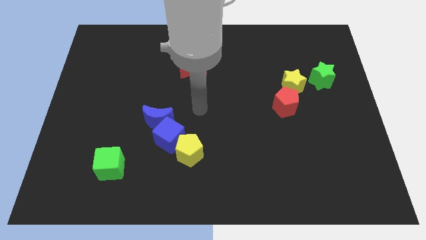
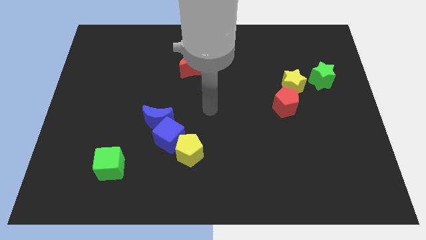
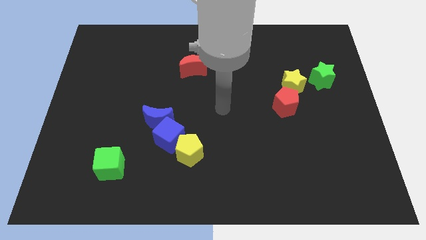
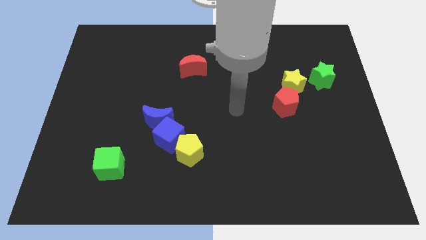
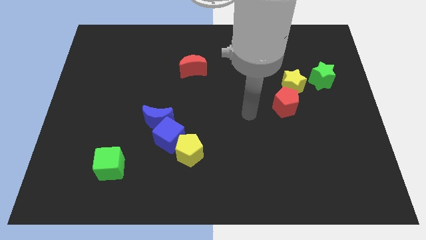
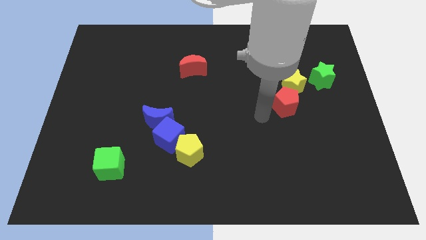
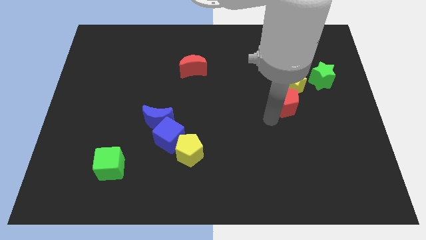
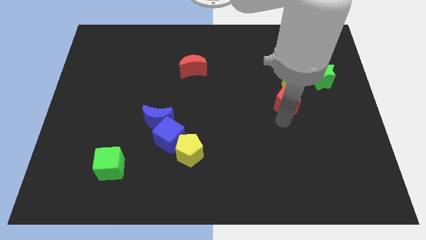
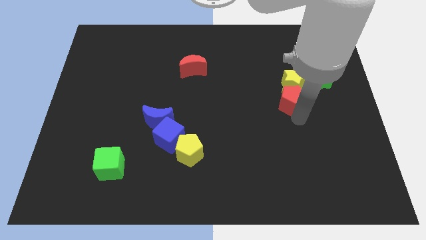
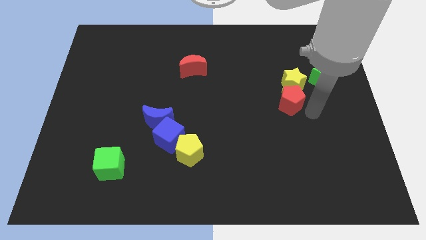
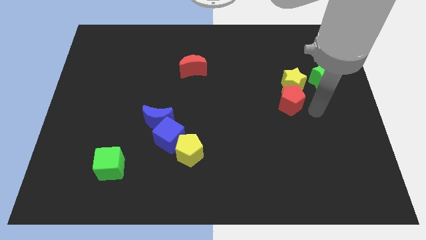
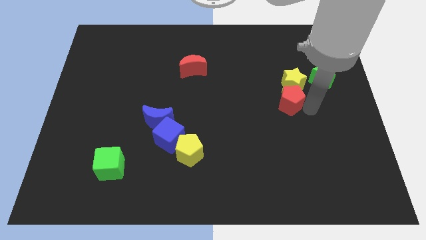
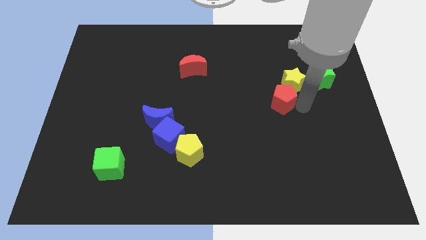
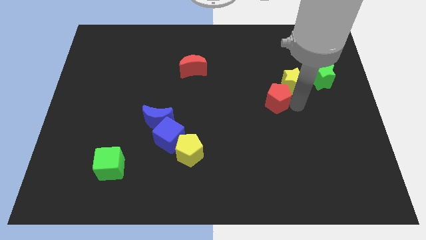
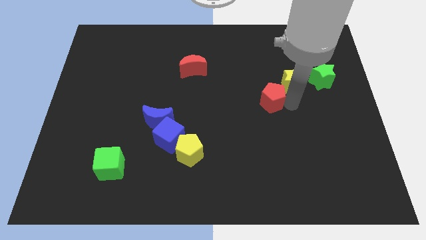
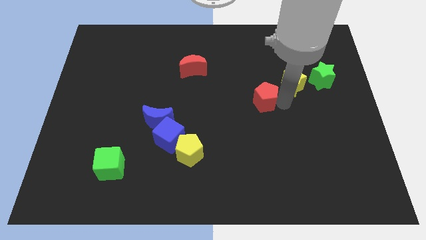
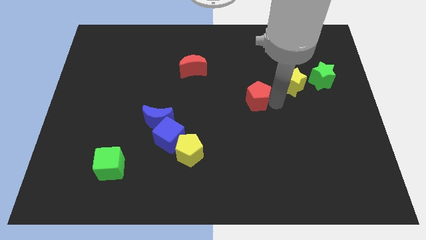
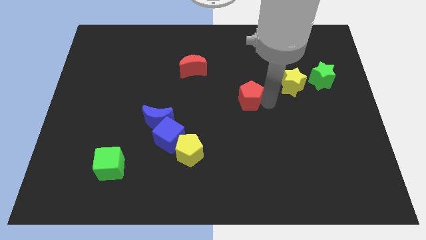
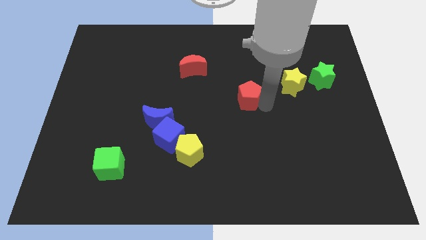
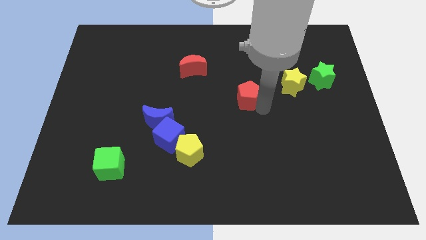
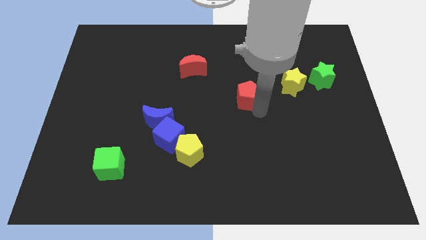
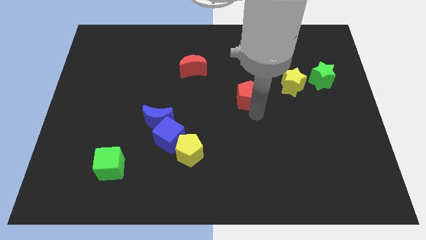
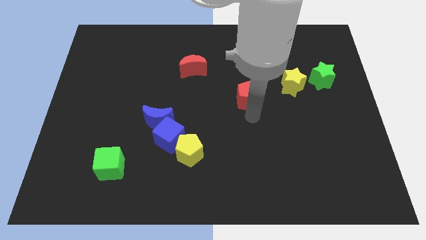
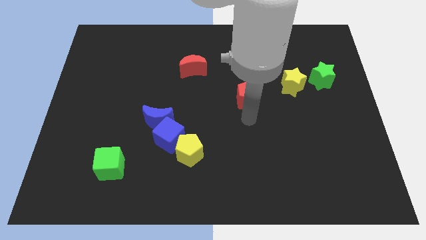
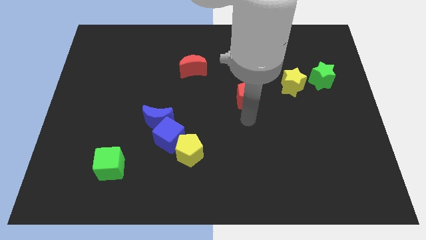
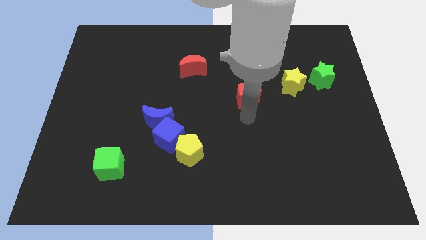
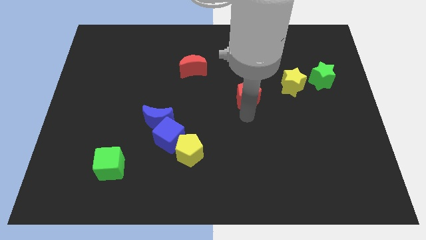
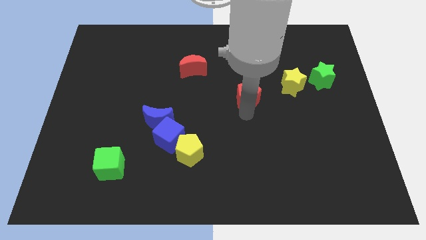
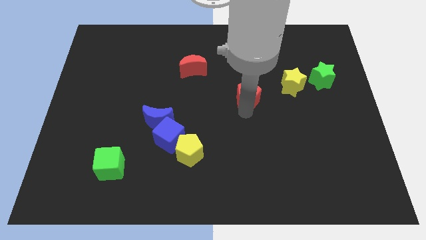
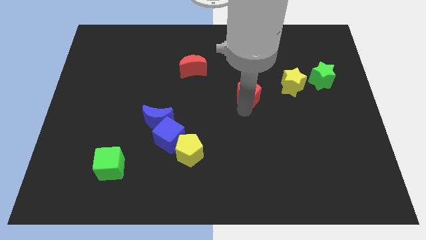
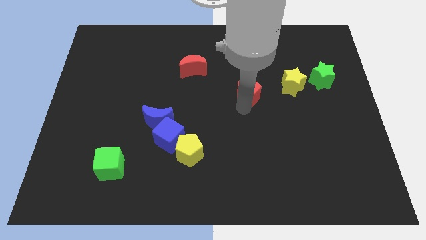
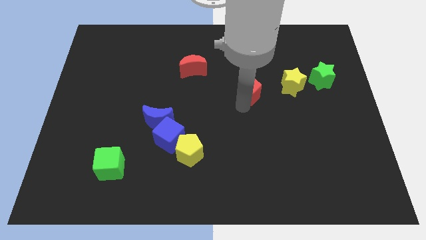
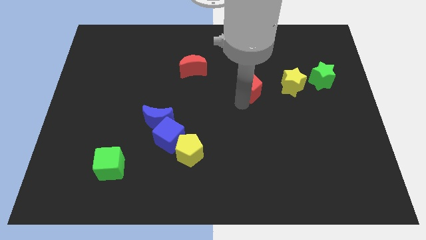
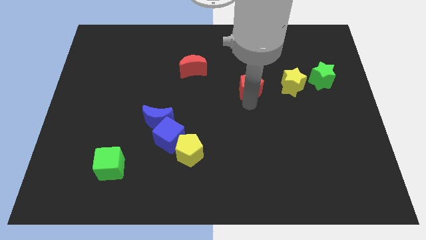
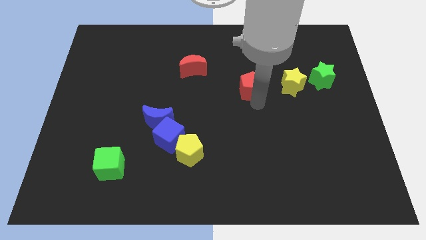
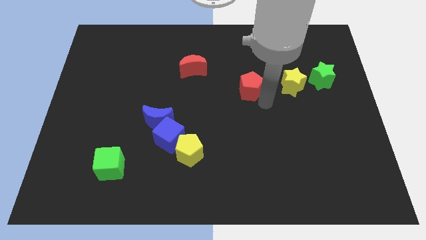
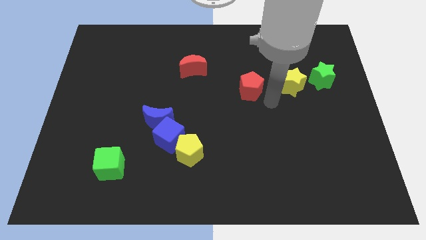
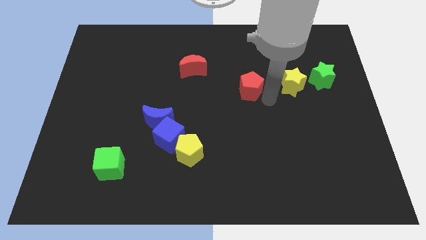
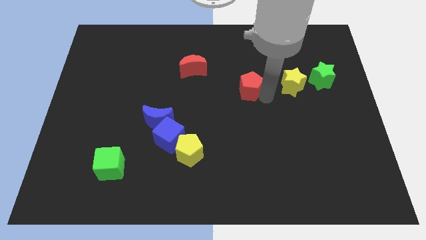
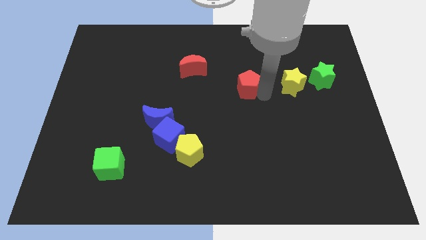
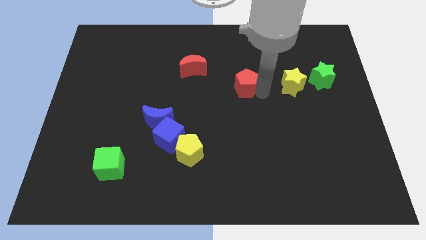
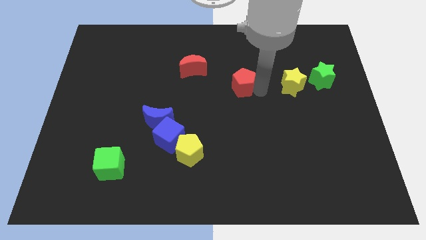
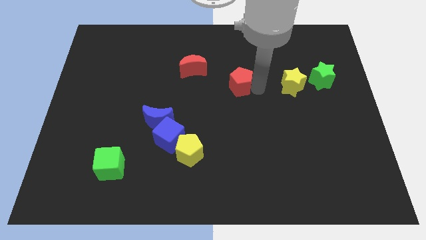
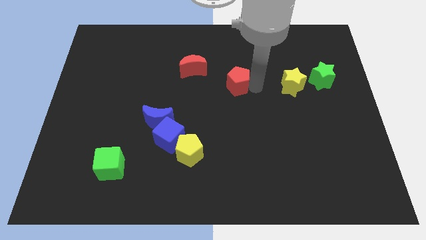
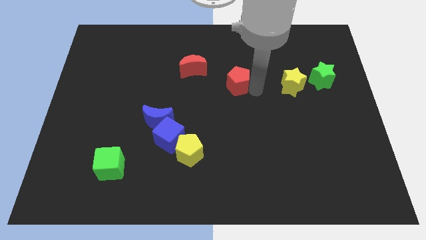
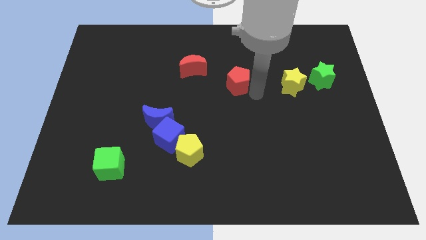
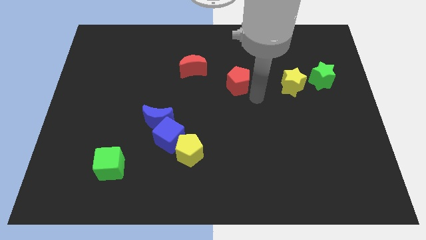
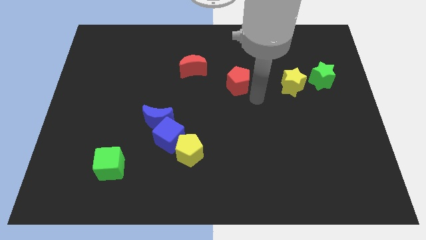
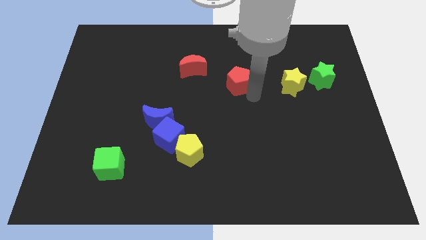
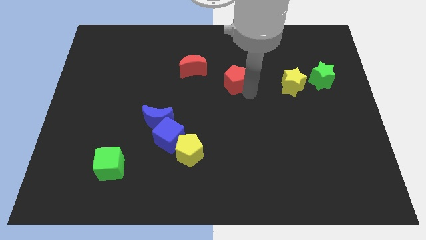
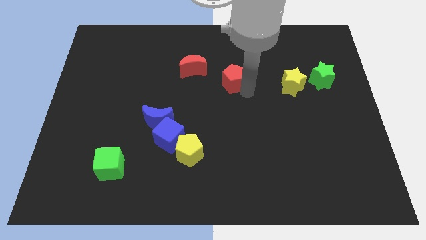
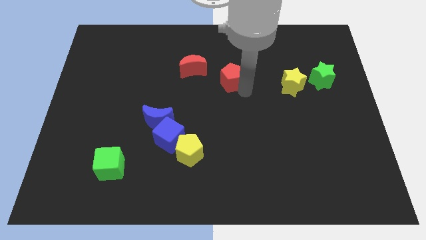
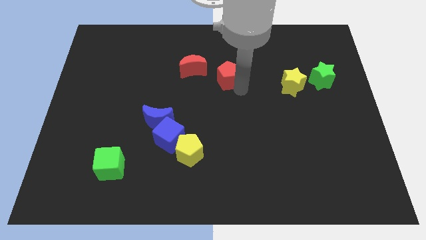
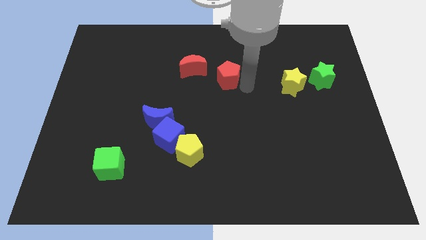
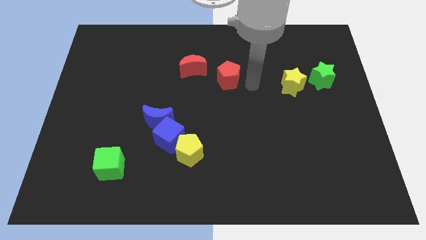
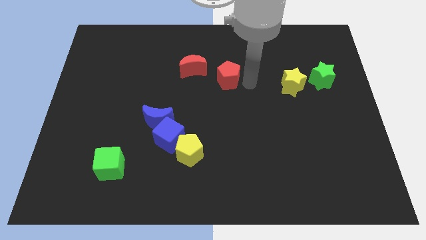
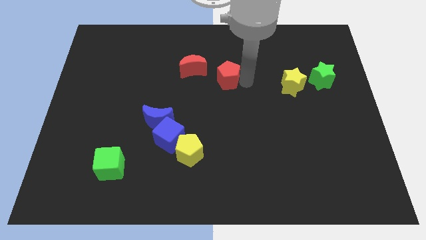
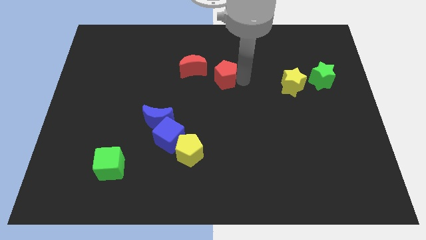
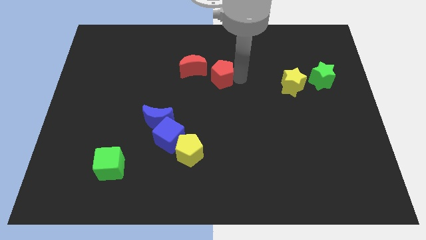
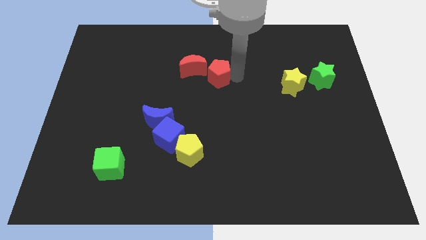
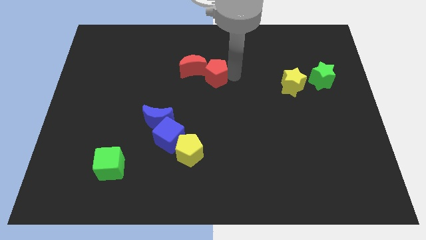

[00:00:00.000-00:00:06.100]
slide the red pentagon towards the red moon

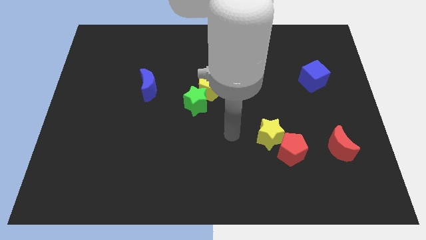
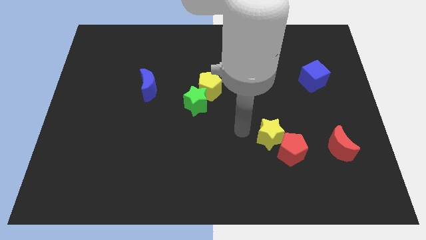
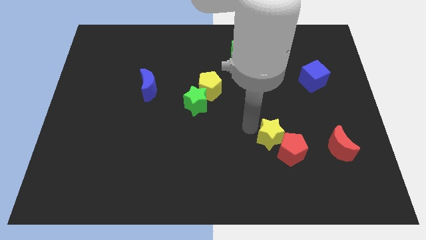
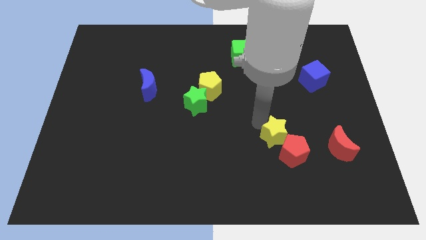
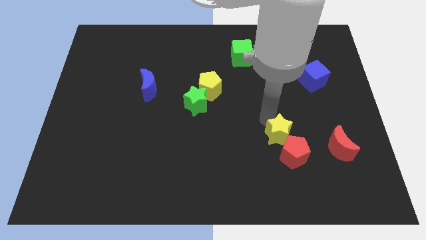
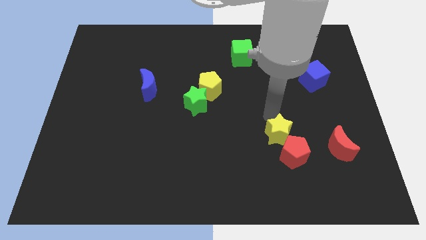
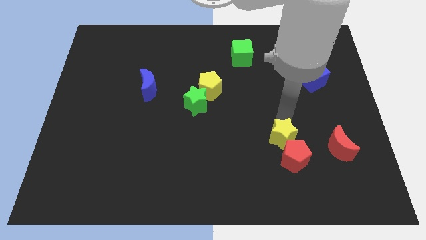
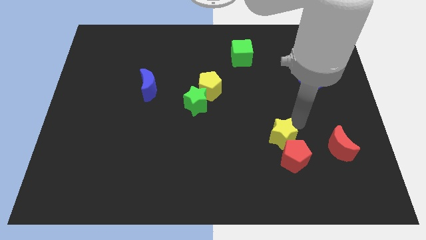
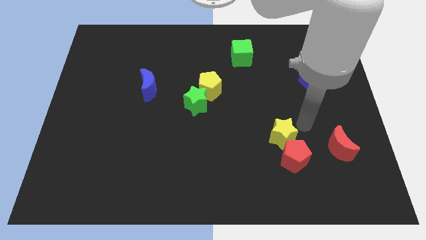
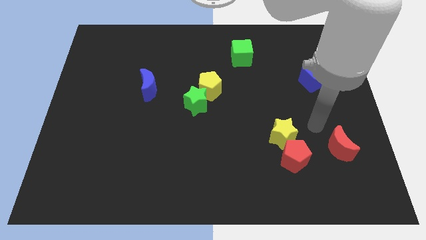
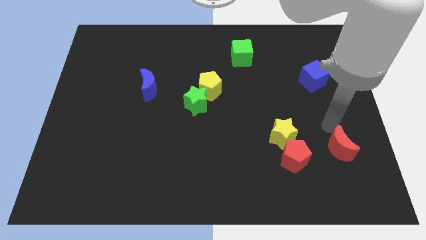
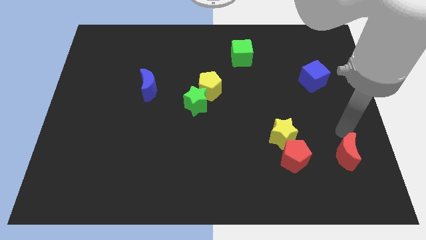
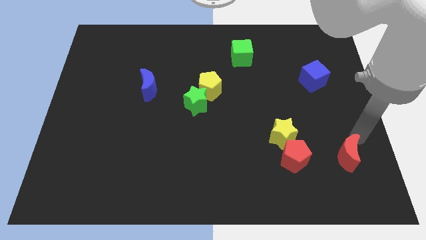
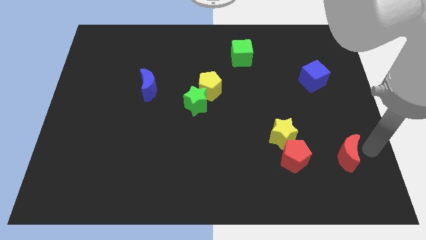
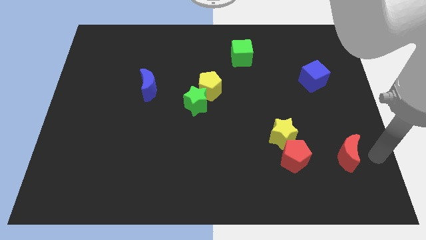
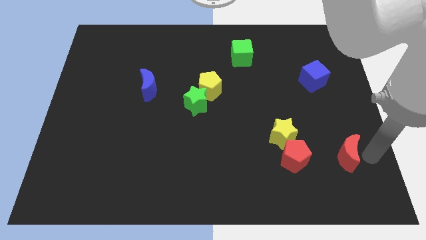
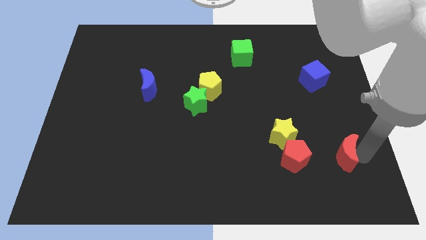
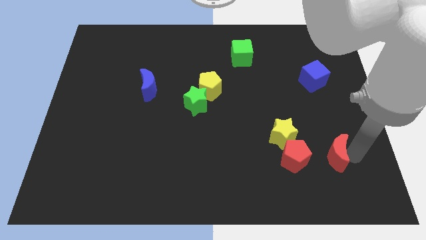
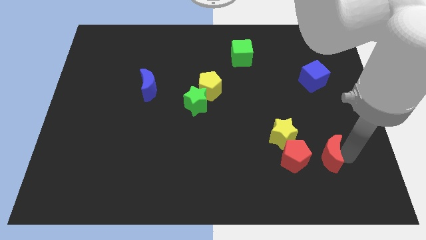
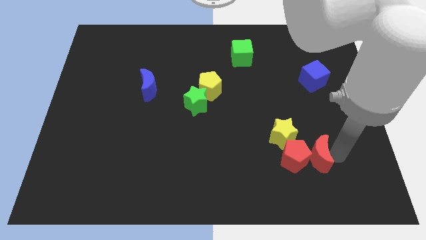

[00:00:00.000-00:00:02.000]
put the red moon towards the red pentagon
